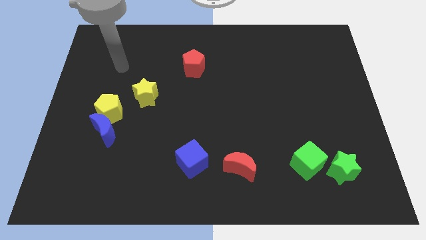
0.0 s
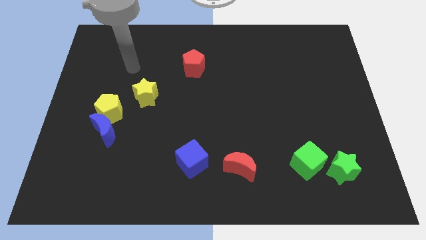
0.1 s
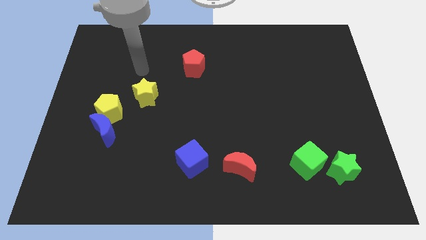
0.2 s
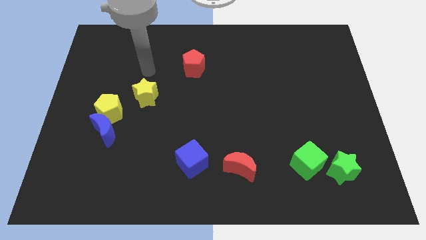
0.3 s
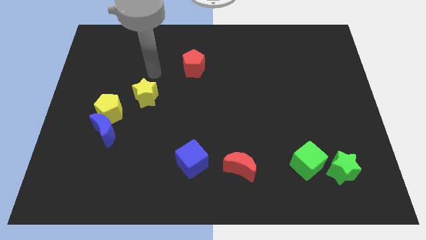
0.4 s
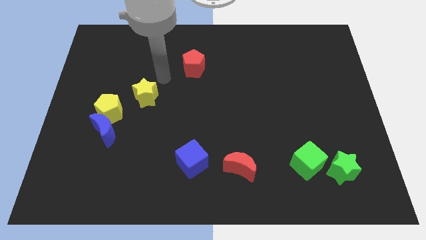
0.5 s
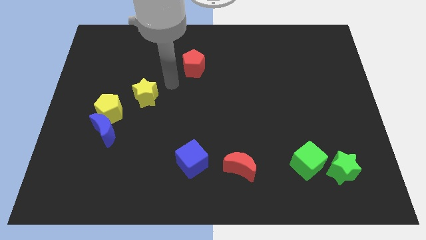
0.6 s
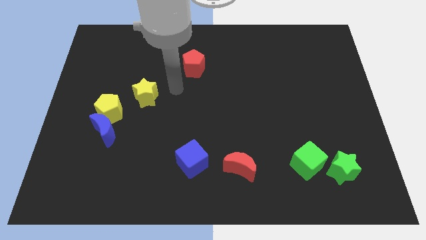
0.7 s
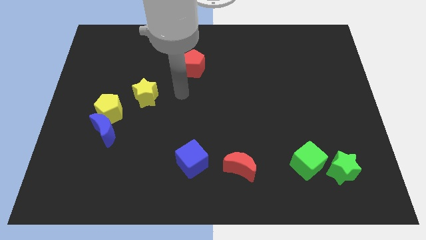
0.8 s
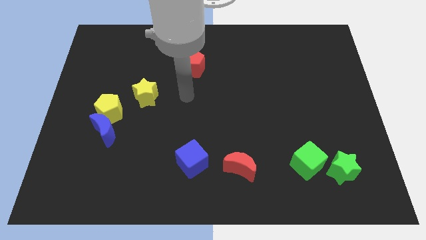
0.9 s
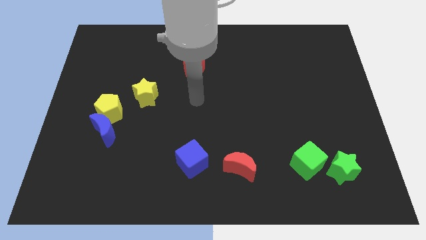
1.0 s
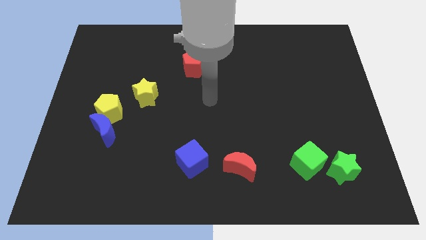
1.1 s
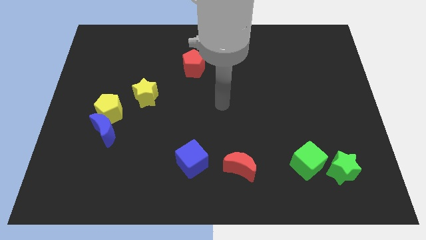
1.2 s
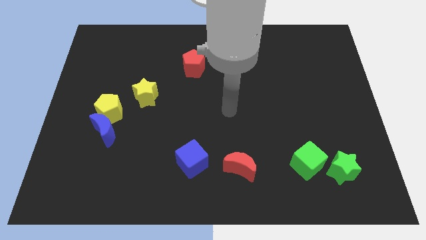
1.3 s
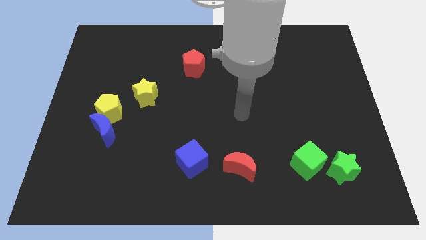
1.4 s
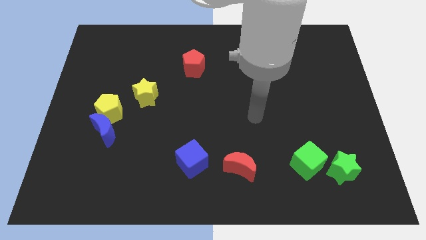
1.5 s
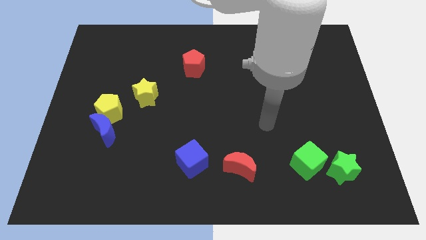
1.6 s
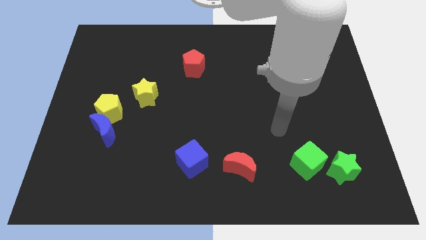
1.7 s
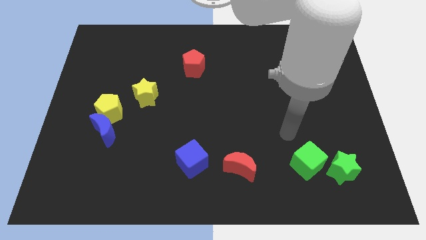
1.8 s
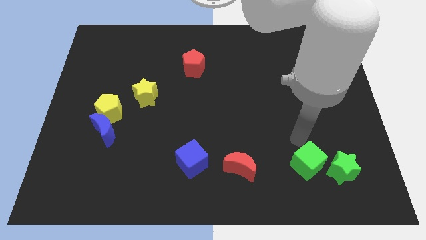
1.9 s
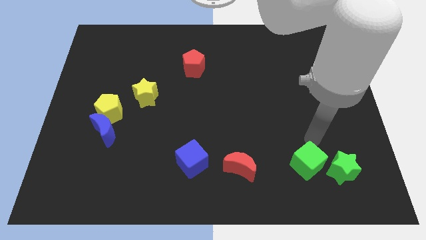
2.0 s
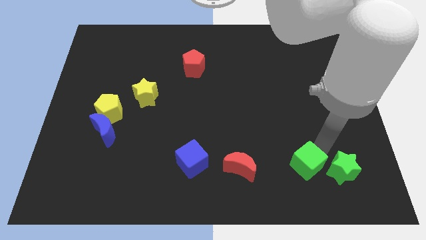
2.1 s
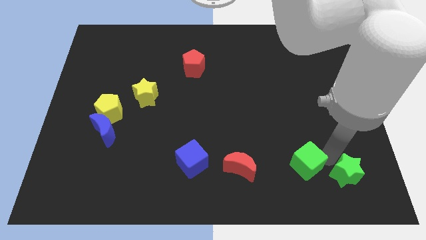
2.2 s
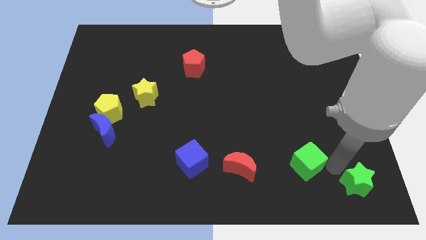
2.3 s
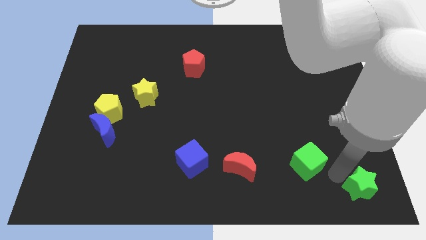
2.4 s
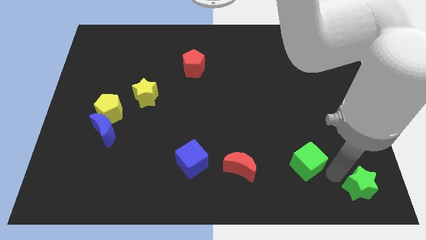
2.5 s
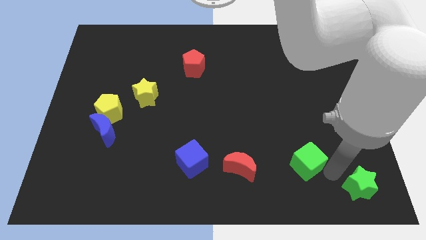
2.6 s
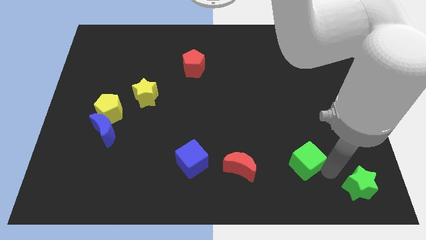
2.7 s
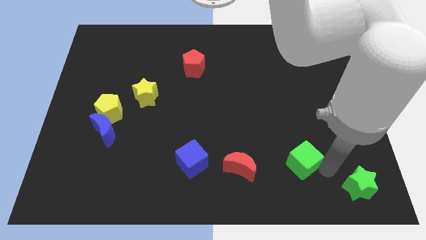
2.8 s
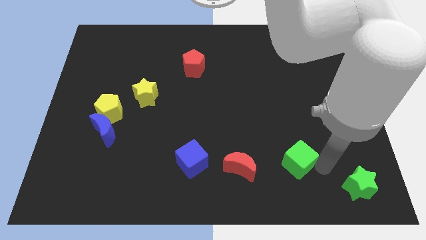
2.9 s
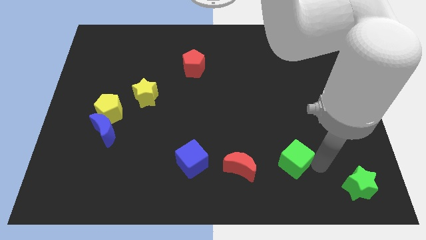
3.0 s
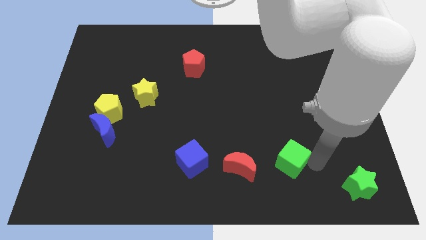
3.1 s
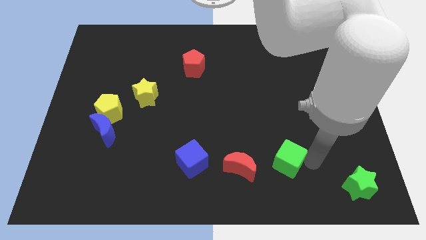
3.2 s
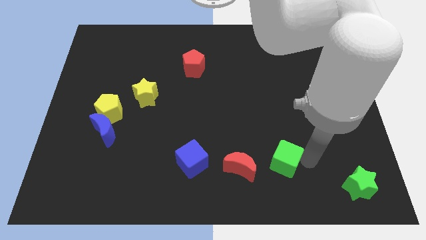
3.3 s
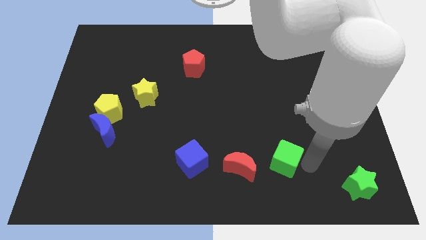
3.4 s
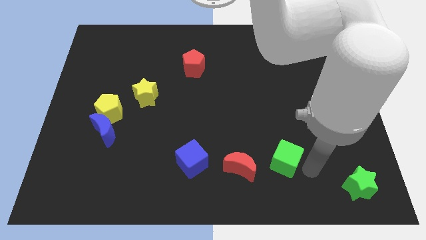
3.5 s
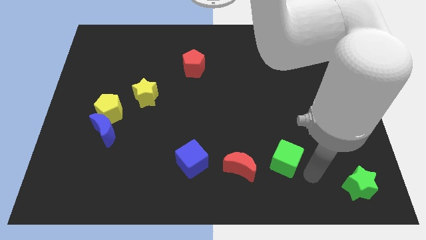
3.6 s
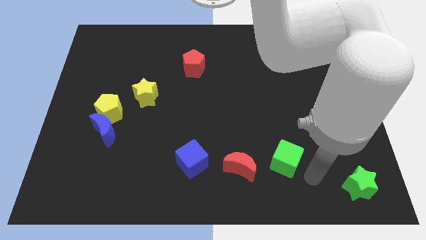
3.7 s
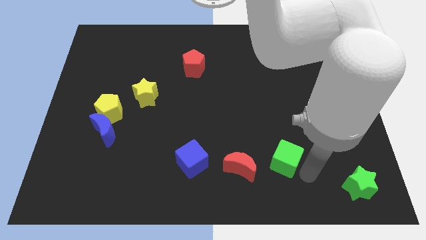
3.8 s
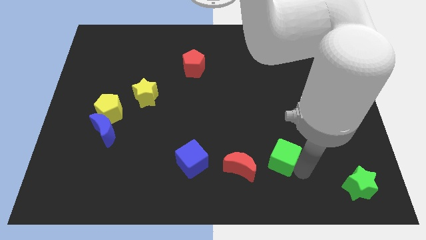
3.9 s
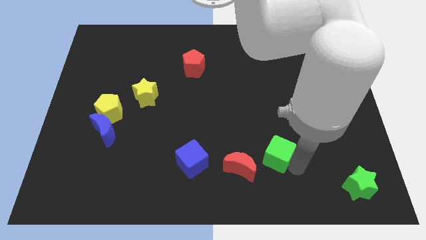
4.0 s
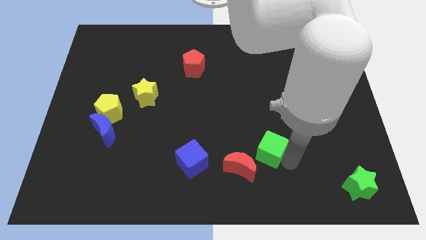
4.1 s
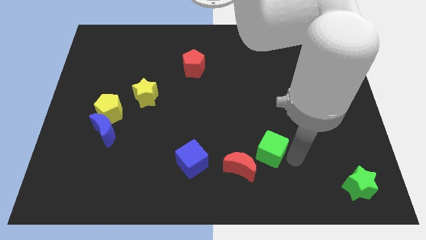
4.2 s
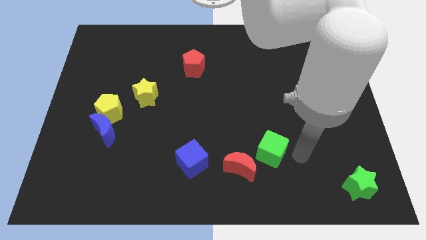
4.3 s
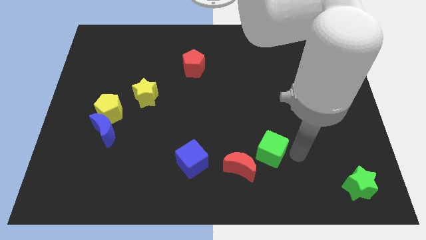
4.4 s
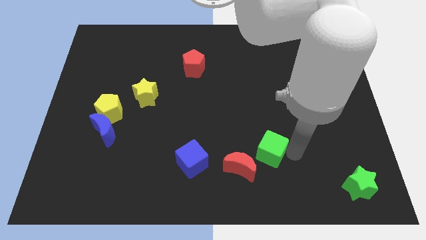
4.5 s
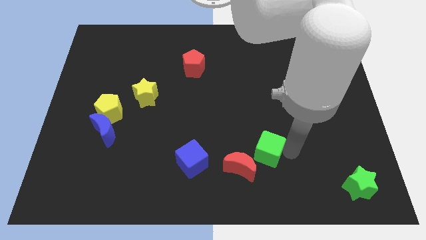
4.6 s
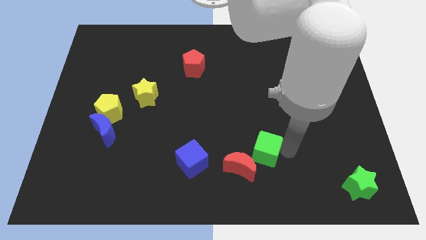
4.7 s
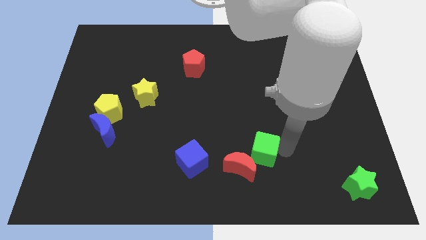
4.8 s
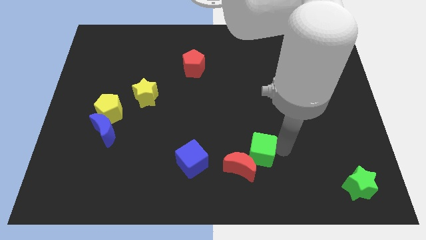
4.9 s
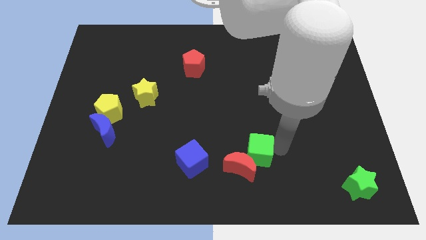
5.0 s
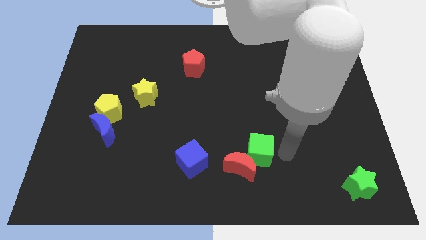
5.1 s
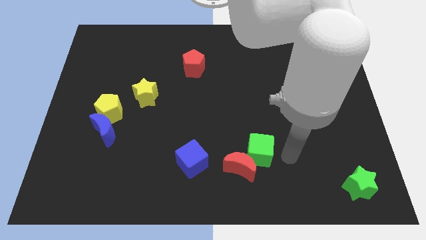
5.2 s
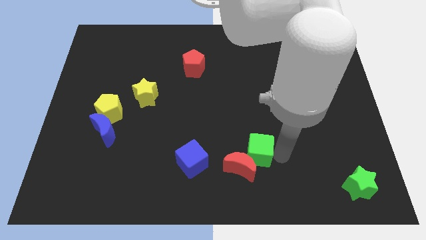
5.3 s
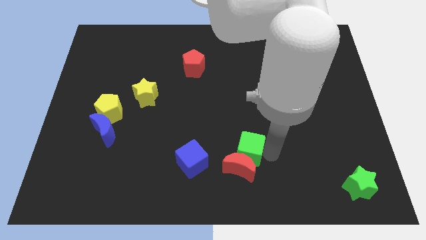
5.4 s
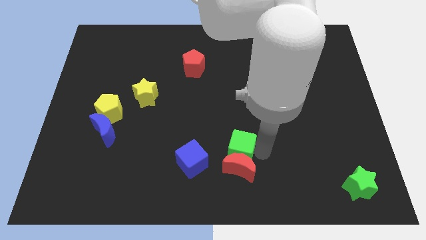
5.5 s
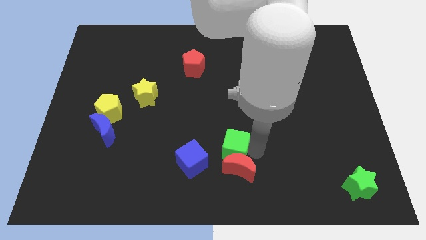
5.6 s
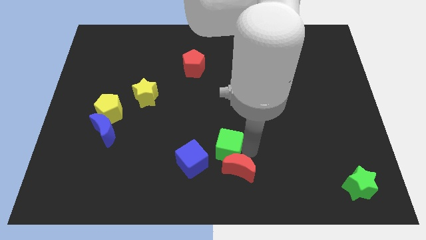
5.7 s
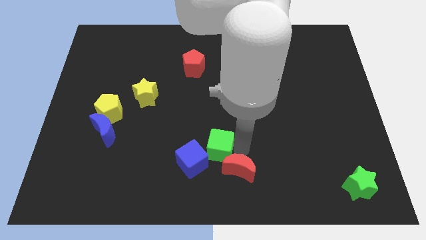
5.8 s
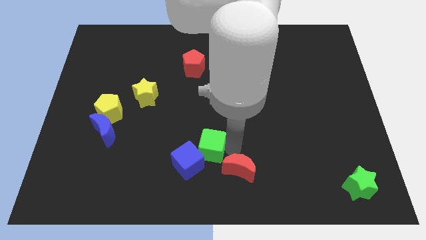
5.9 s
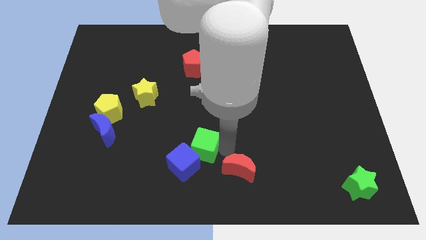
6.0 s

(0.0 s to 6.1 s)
slide the green cube to the left

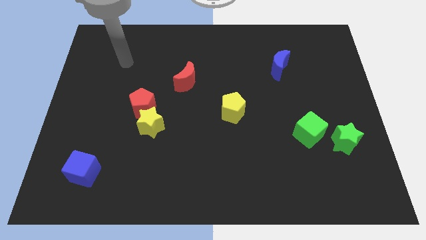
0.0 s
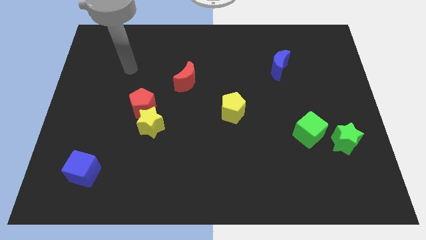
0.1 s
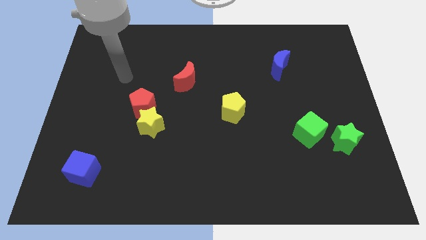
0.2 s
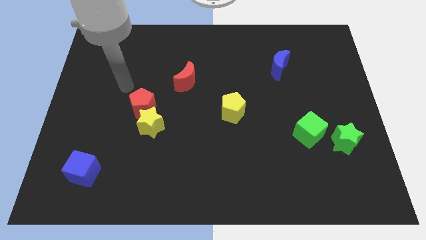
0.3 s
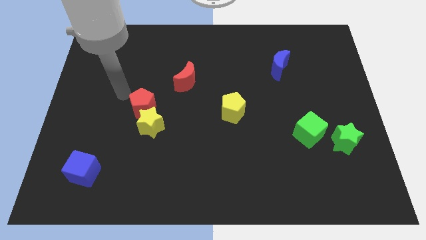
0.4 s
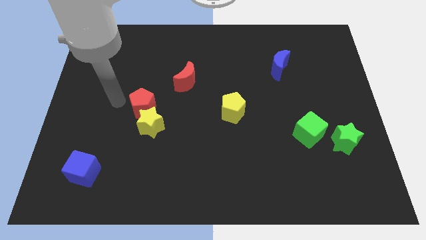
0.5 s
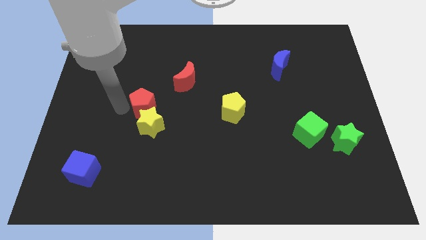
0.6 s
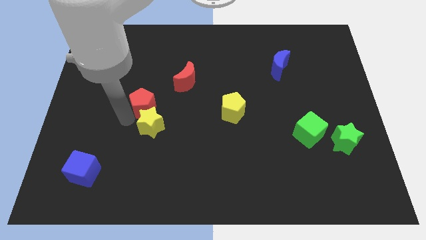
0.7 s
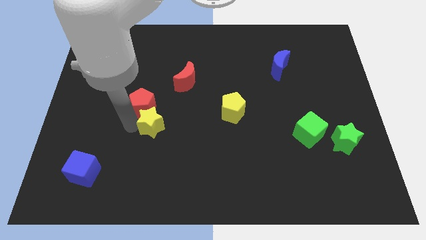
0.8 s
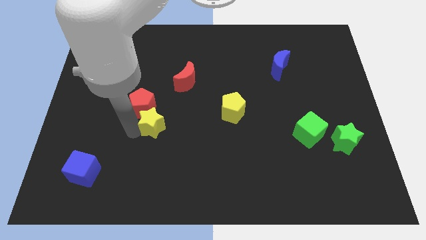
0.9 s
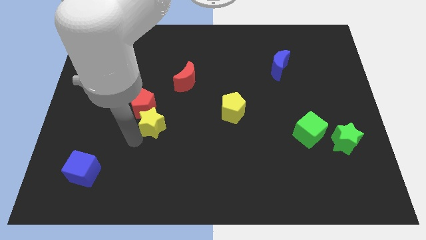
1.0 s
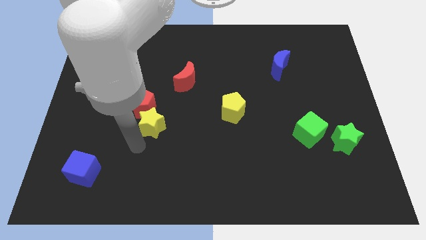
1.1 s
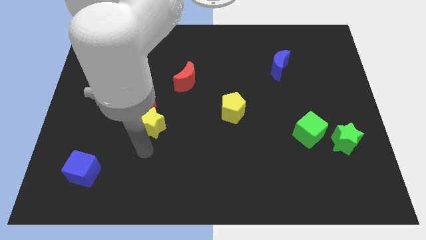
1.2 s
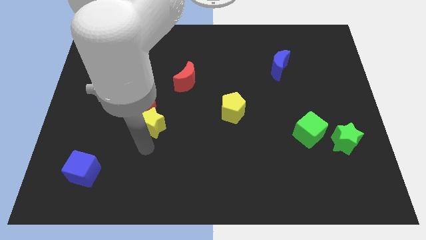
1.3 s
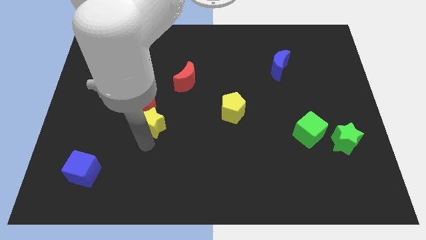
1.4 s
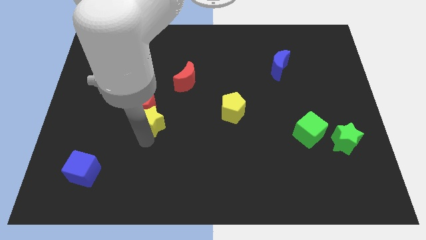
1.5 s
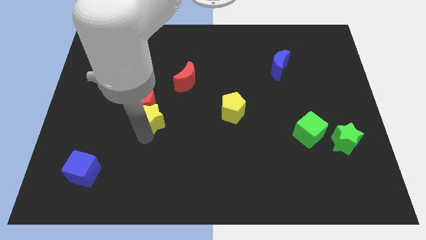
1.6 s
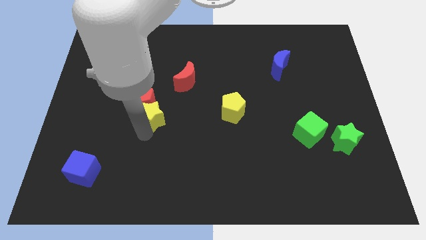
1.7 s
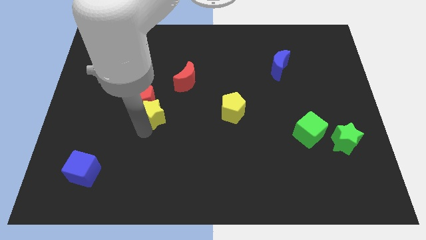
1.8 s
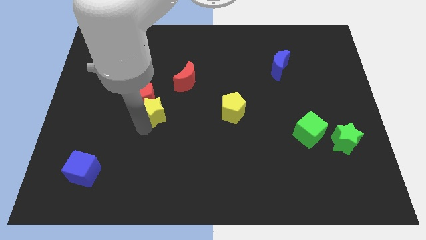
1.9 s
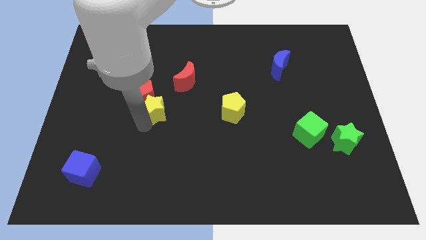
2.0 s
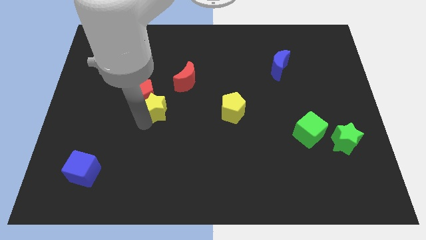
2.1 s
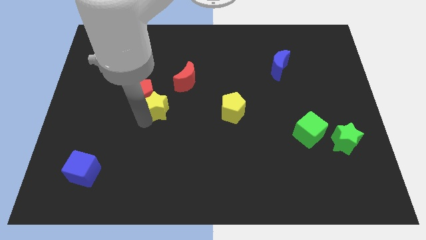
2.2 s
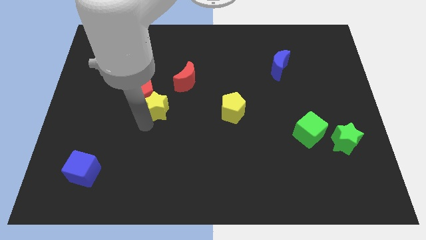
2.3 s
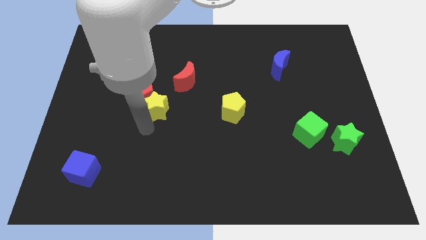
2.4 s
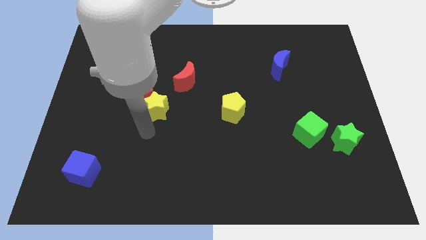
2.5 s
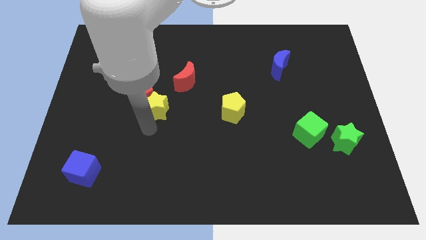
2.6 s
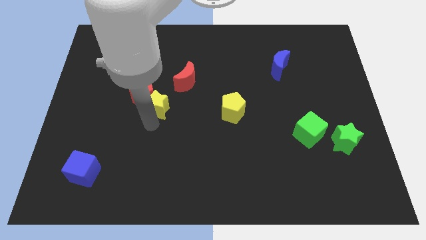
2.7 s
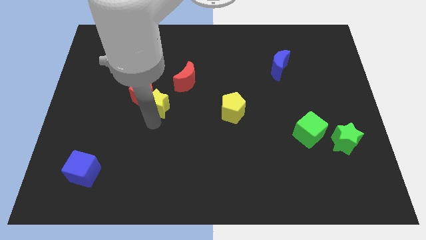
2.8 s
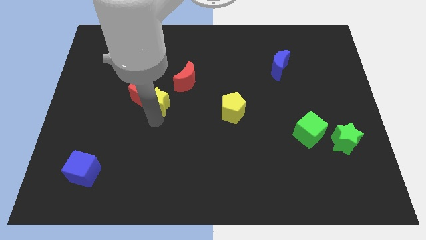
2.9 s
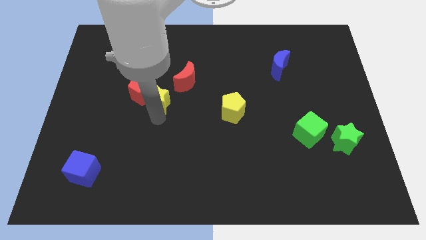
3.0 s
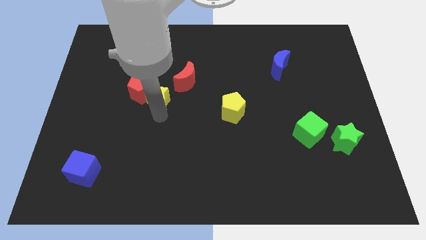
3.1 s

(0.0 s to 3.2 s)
move the yellow star upwards a little bit
